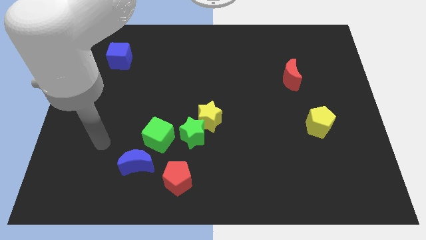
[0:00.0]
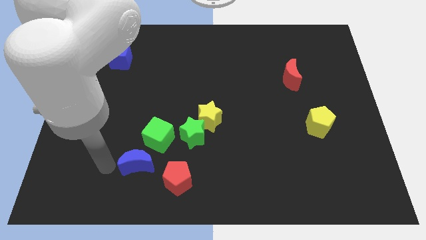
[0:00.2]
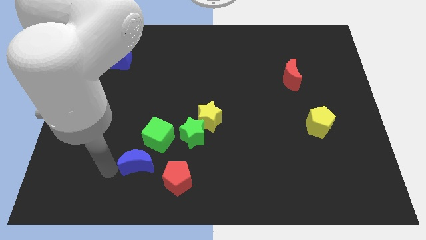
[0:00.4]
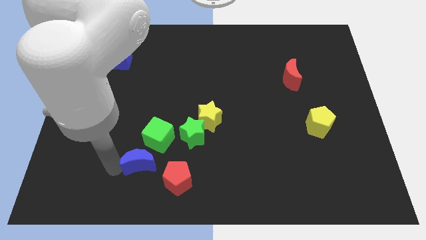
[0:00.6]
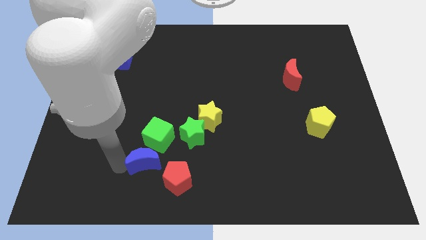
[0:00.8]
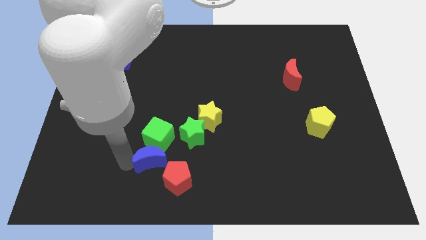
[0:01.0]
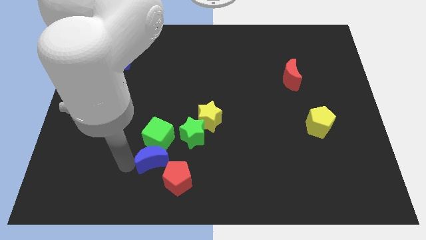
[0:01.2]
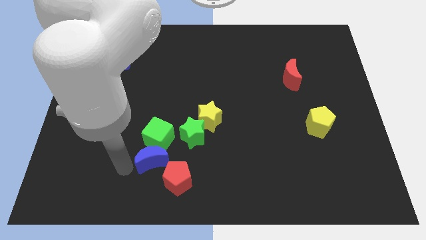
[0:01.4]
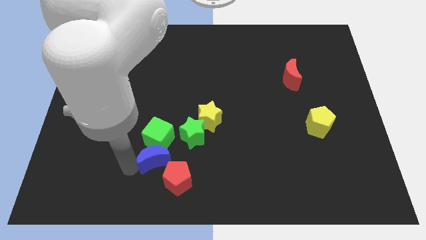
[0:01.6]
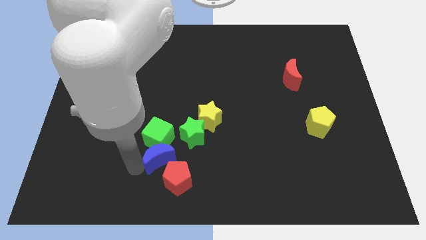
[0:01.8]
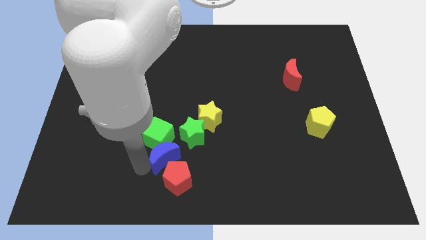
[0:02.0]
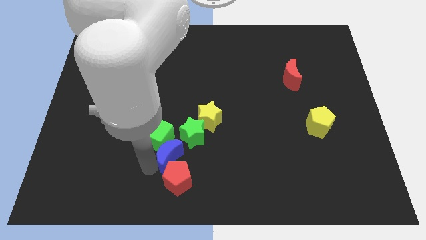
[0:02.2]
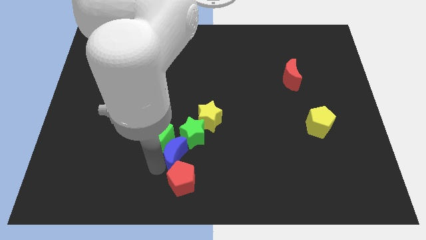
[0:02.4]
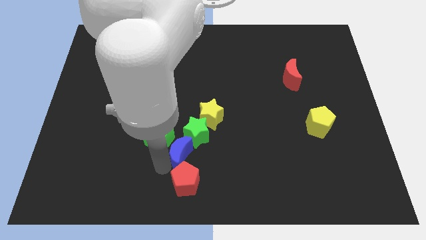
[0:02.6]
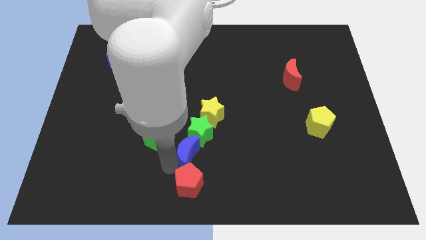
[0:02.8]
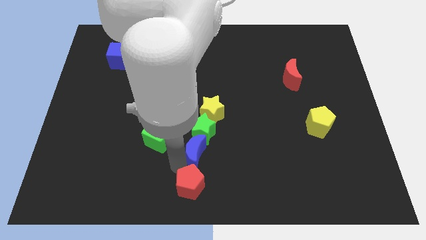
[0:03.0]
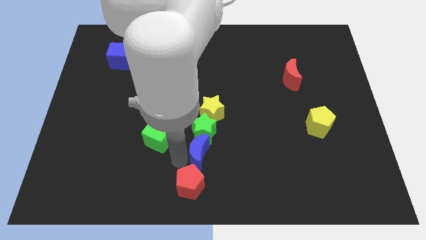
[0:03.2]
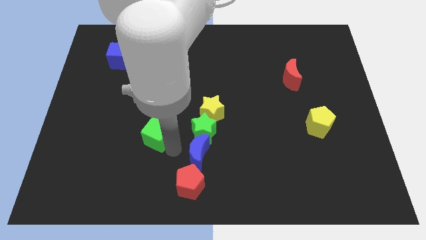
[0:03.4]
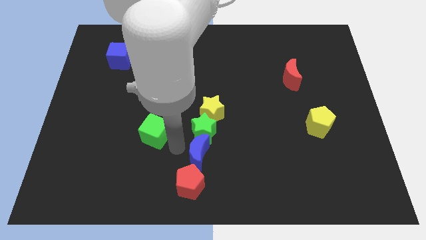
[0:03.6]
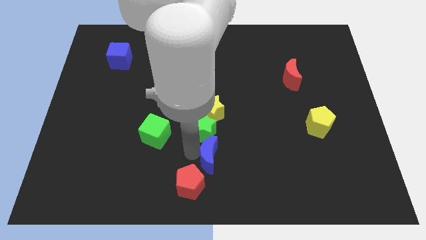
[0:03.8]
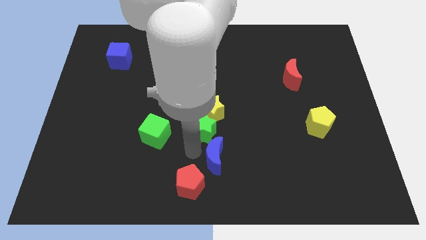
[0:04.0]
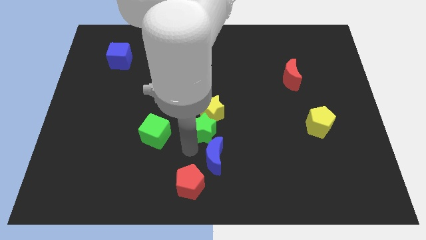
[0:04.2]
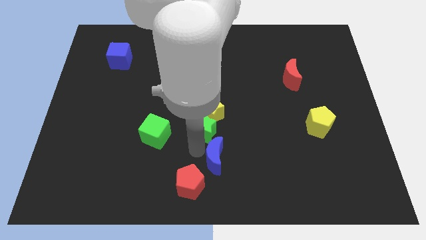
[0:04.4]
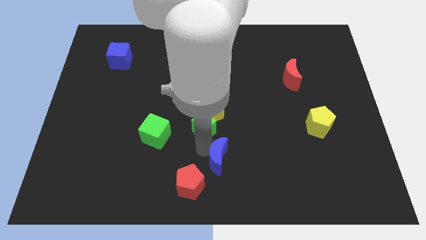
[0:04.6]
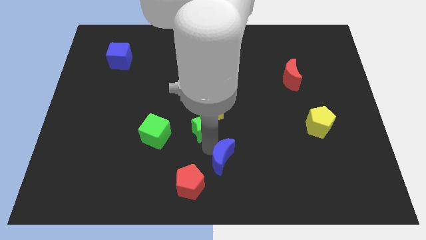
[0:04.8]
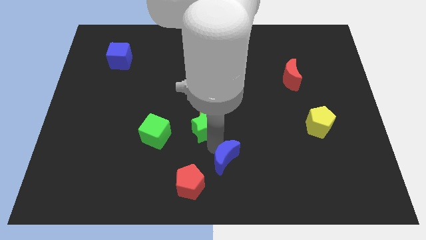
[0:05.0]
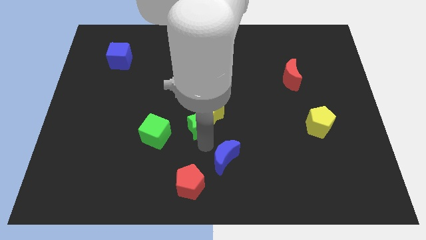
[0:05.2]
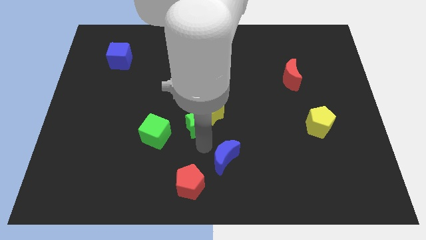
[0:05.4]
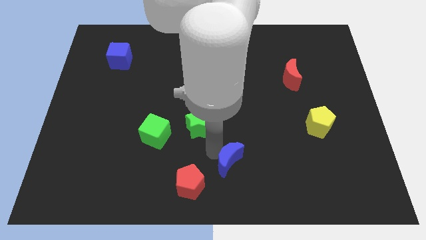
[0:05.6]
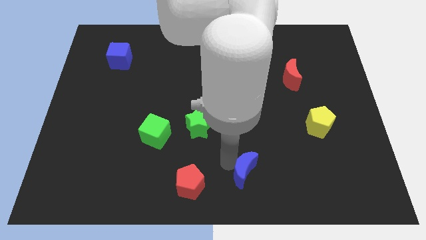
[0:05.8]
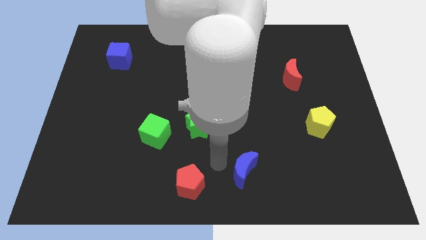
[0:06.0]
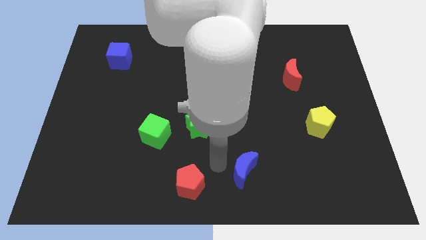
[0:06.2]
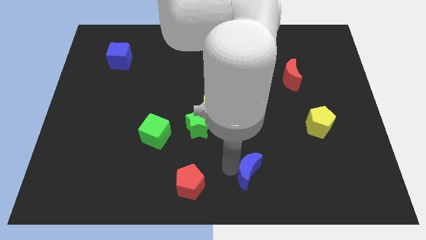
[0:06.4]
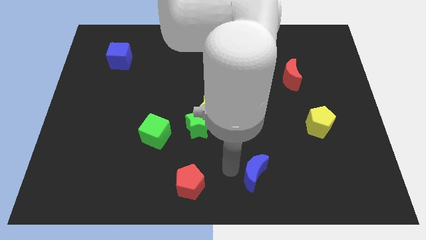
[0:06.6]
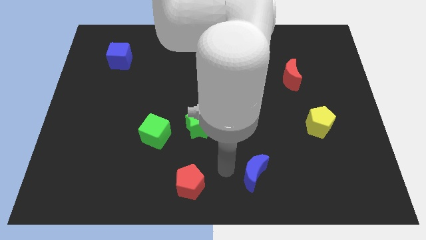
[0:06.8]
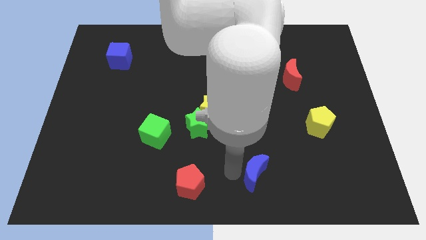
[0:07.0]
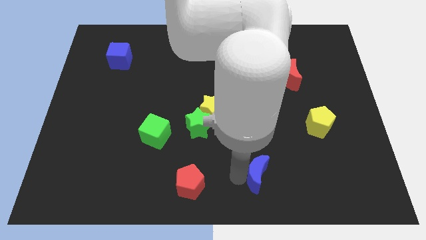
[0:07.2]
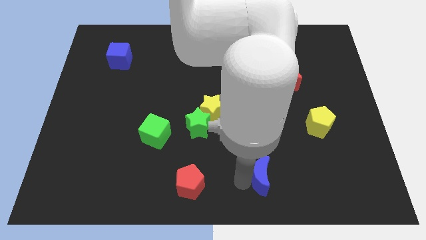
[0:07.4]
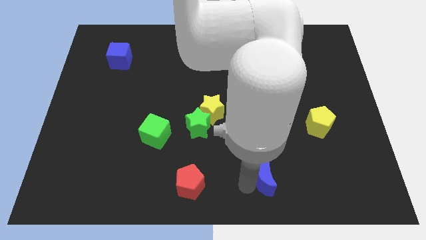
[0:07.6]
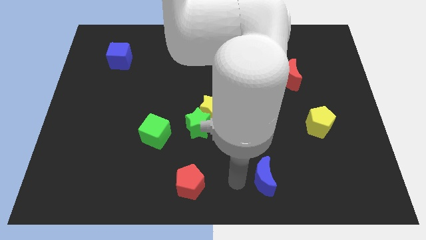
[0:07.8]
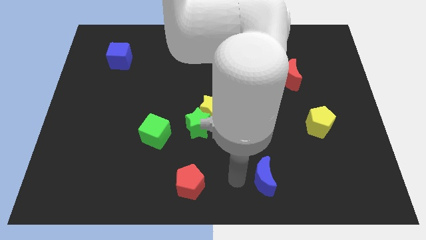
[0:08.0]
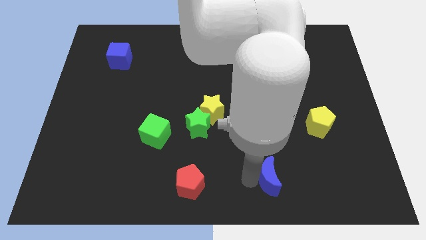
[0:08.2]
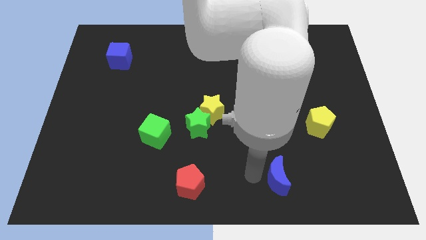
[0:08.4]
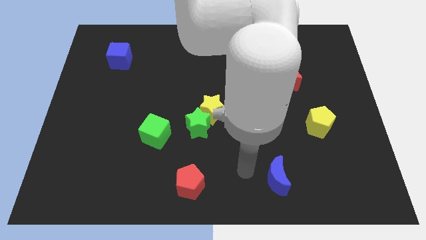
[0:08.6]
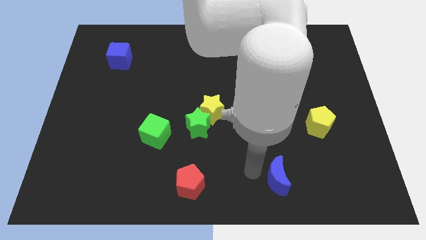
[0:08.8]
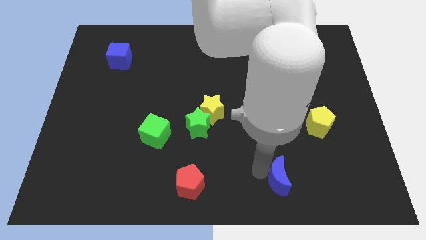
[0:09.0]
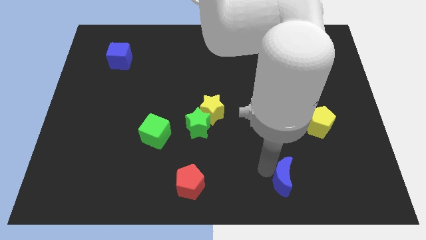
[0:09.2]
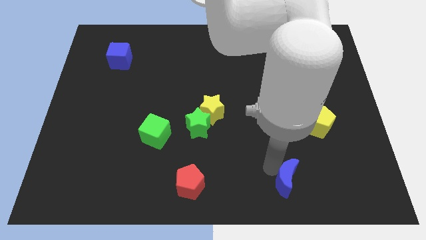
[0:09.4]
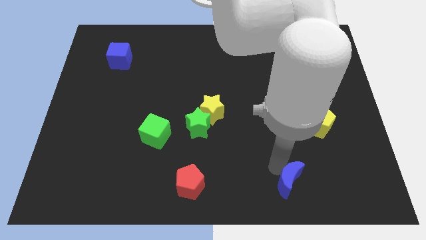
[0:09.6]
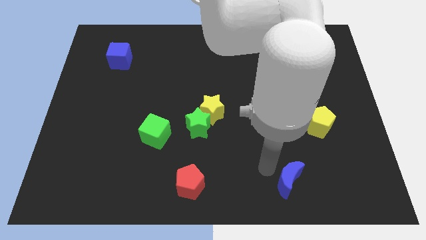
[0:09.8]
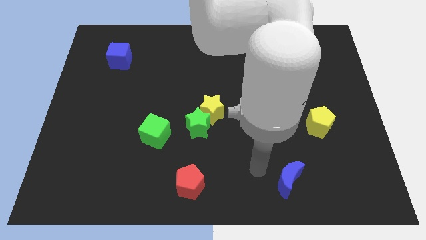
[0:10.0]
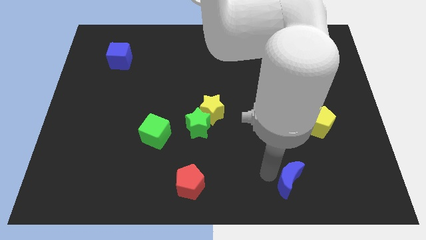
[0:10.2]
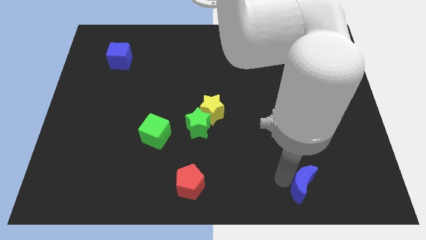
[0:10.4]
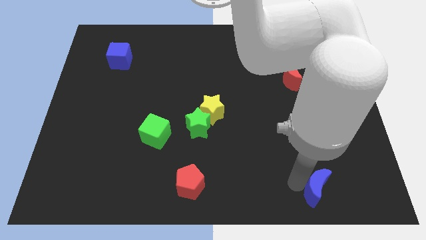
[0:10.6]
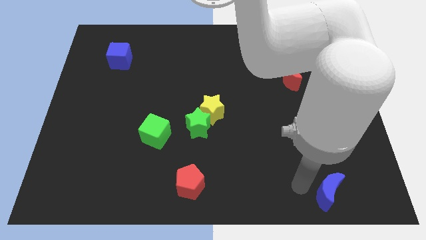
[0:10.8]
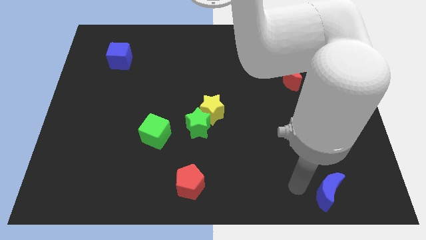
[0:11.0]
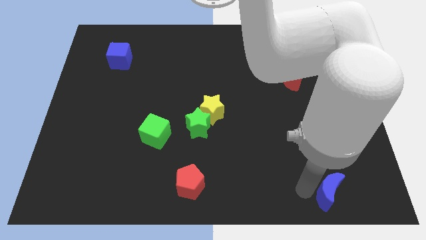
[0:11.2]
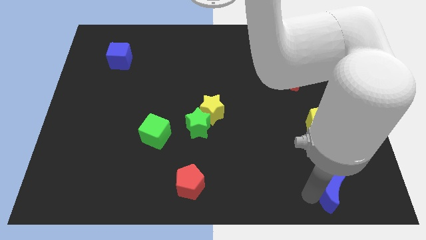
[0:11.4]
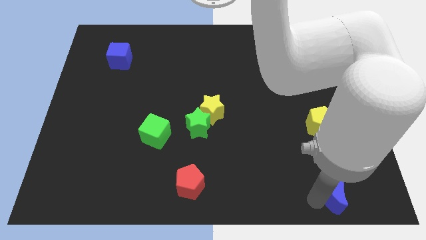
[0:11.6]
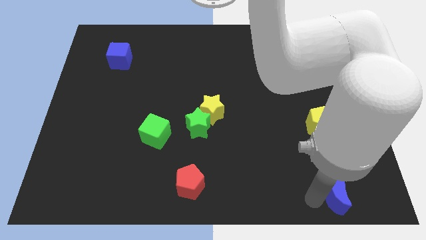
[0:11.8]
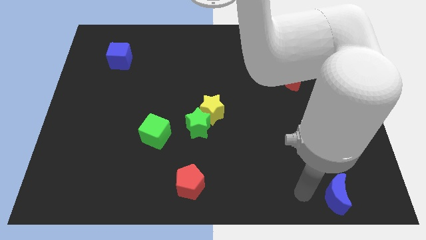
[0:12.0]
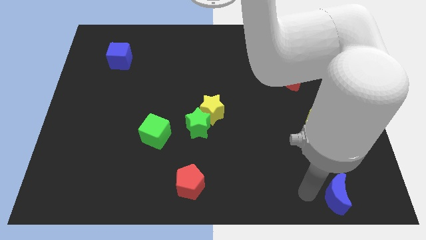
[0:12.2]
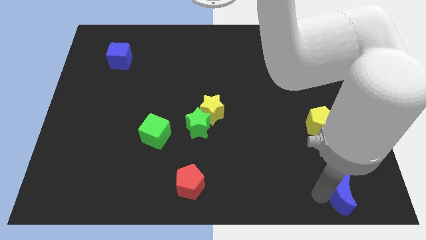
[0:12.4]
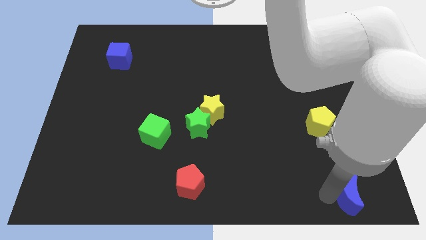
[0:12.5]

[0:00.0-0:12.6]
move the blue moon to the bottom right corner
